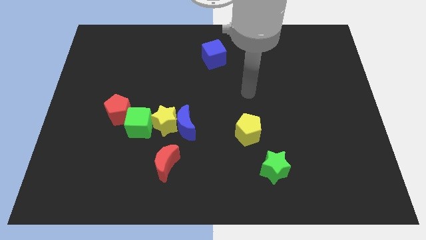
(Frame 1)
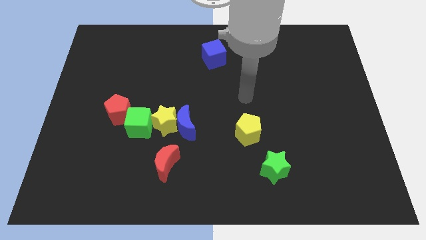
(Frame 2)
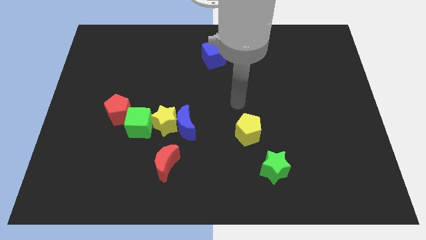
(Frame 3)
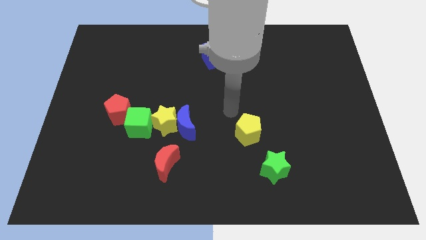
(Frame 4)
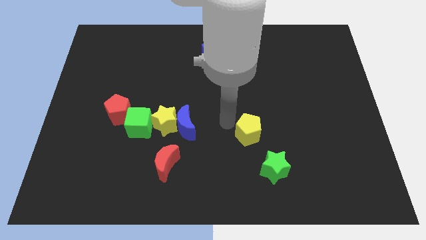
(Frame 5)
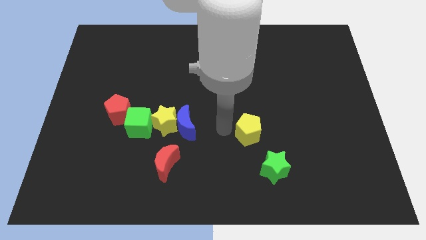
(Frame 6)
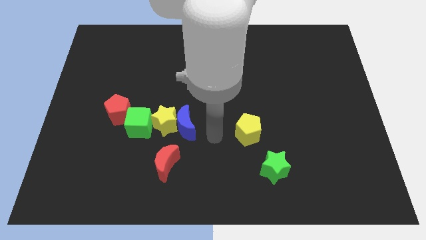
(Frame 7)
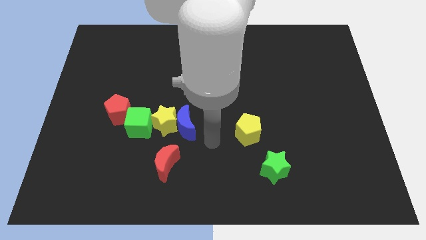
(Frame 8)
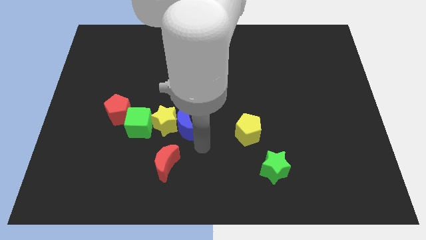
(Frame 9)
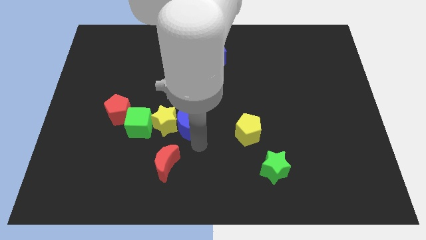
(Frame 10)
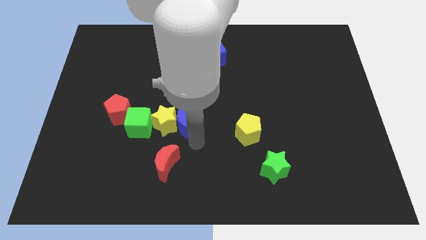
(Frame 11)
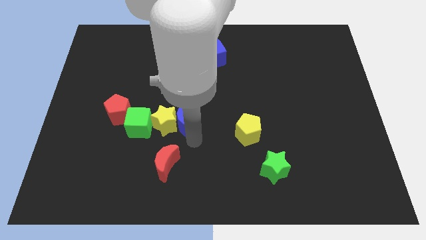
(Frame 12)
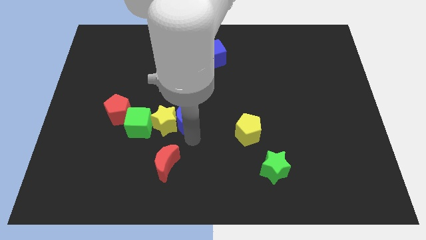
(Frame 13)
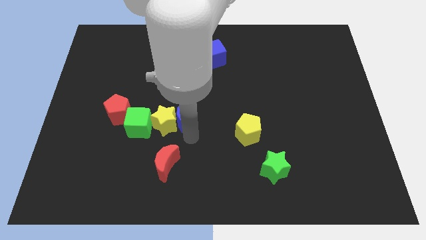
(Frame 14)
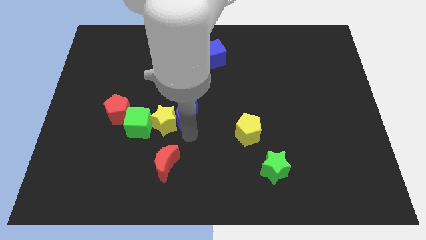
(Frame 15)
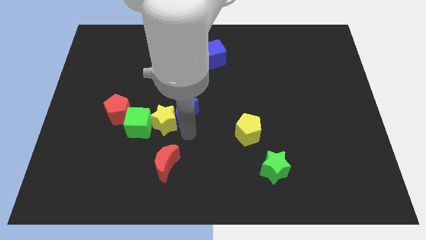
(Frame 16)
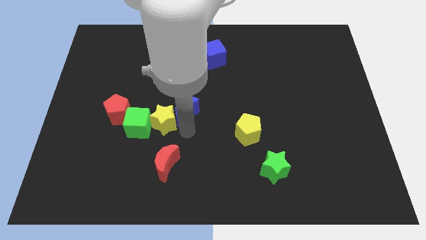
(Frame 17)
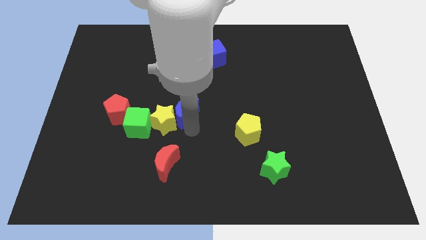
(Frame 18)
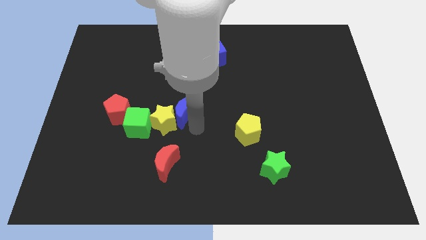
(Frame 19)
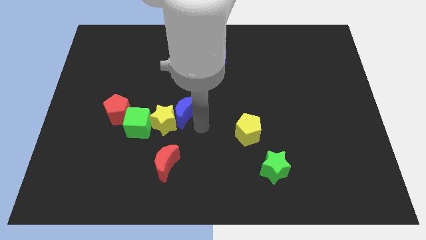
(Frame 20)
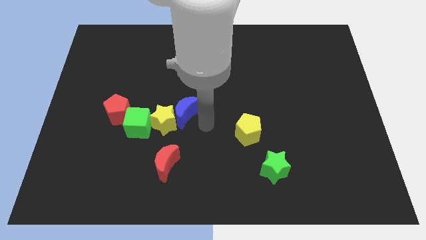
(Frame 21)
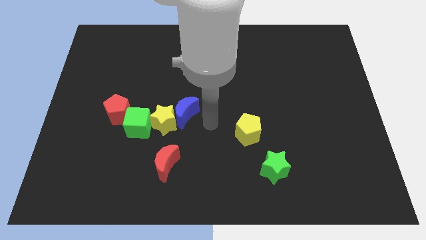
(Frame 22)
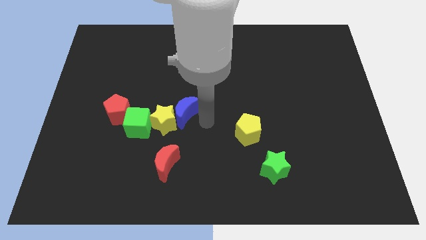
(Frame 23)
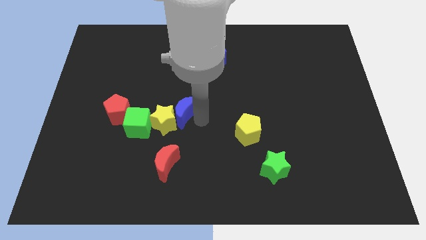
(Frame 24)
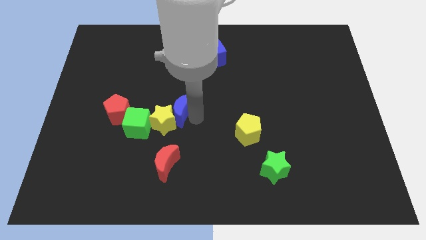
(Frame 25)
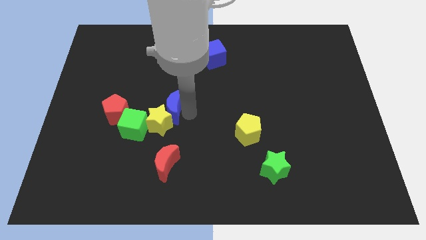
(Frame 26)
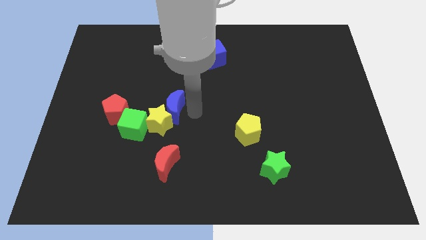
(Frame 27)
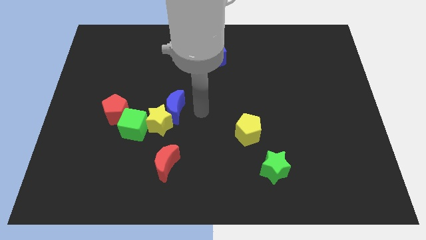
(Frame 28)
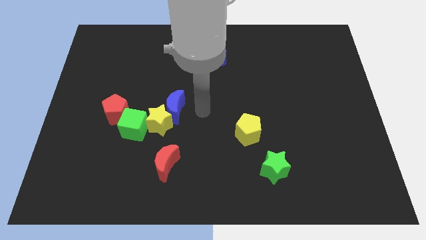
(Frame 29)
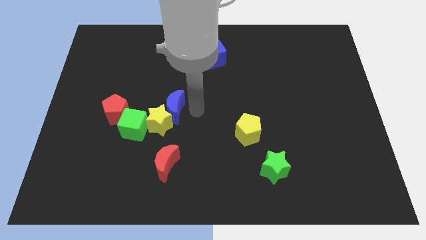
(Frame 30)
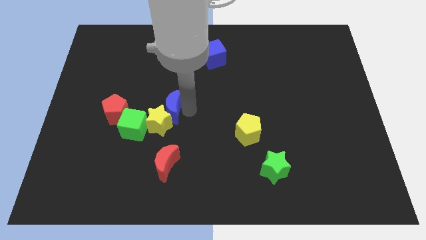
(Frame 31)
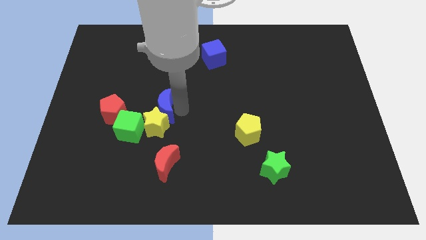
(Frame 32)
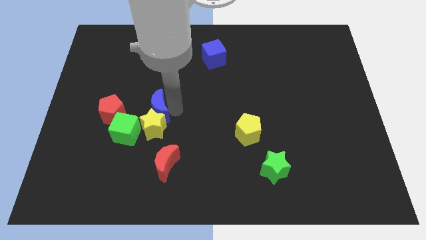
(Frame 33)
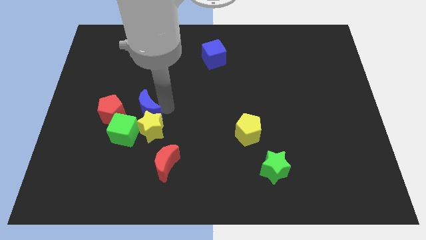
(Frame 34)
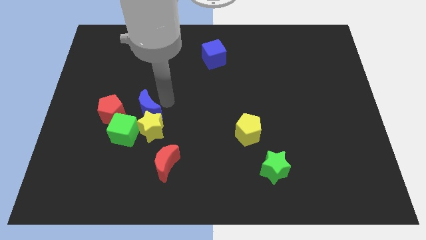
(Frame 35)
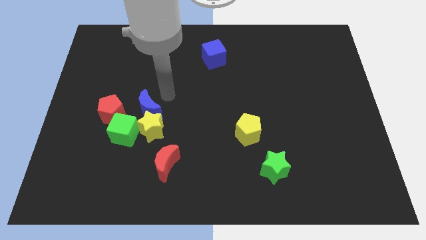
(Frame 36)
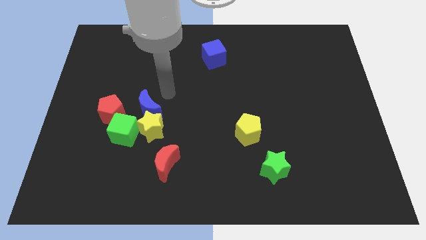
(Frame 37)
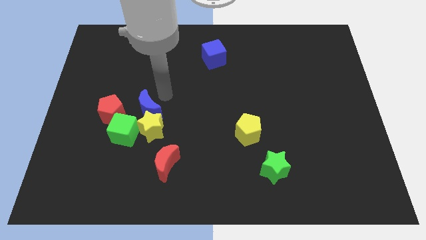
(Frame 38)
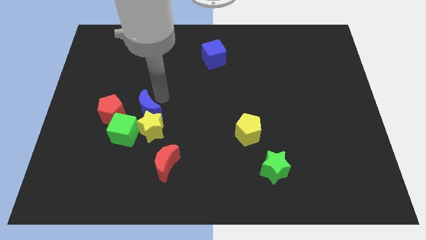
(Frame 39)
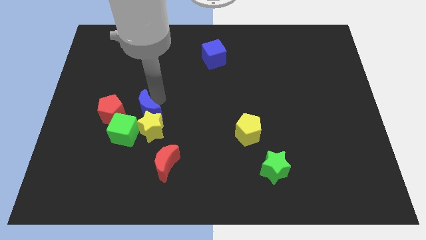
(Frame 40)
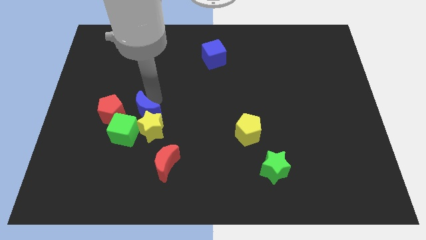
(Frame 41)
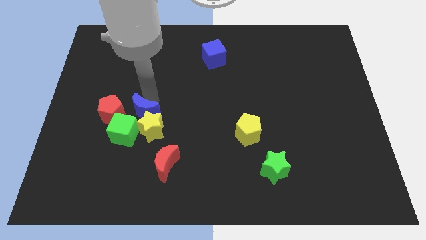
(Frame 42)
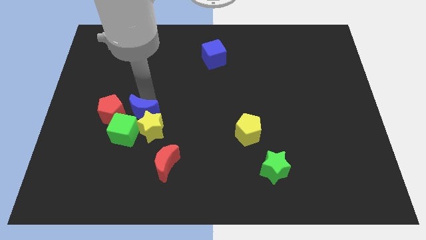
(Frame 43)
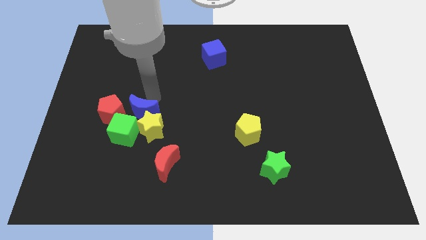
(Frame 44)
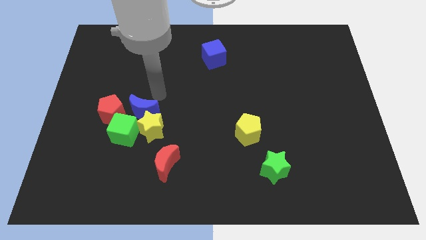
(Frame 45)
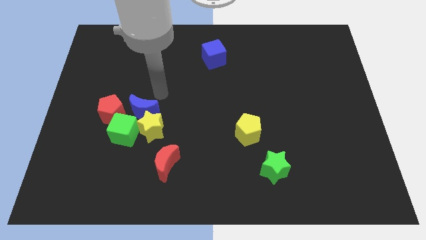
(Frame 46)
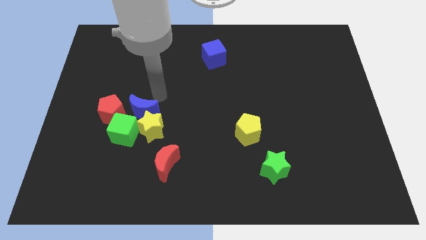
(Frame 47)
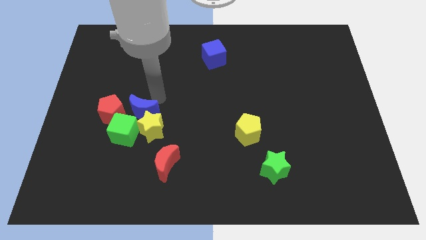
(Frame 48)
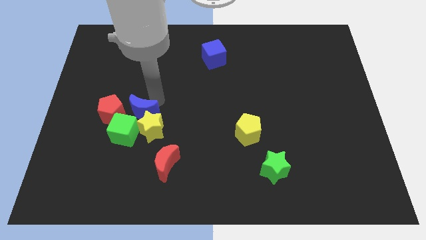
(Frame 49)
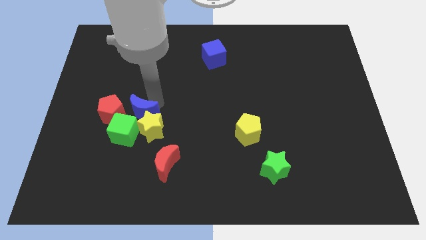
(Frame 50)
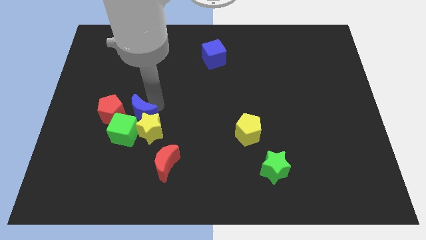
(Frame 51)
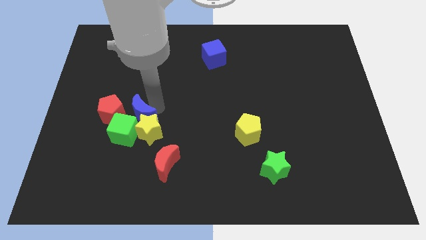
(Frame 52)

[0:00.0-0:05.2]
put the blue moon close to the green cube

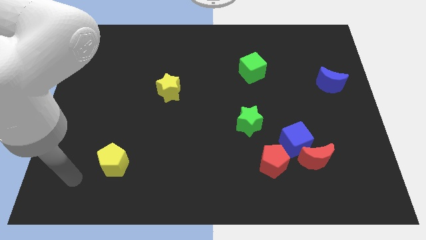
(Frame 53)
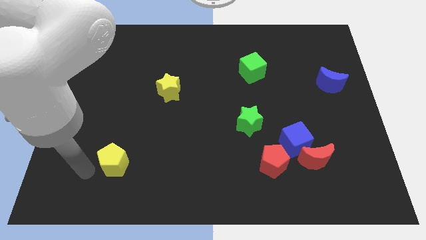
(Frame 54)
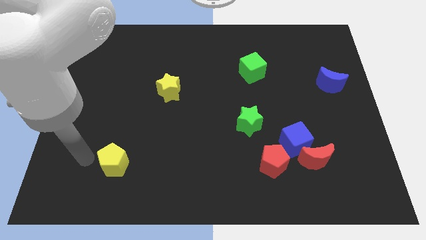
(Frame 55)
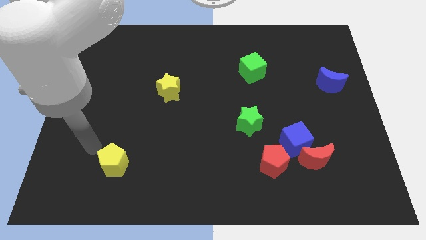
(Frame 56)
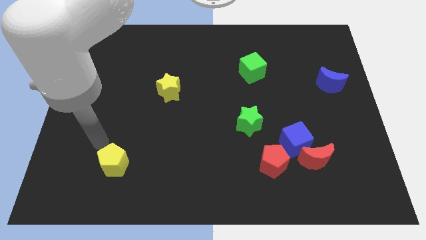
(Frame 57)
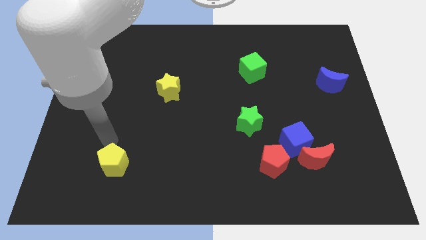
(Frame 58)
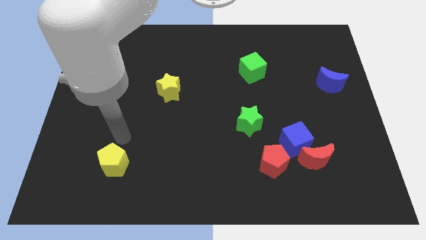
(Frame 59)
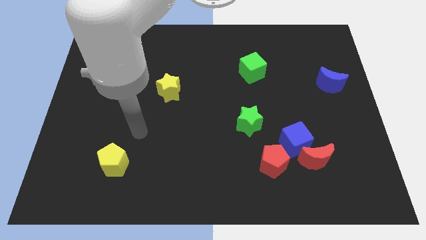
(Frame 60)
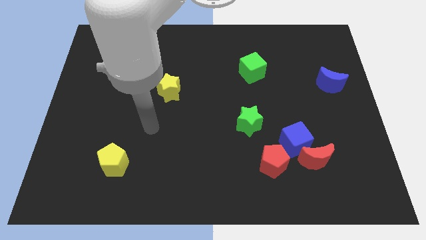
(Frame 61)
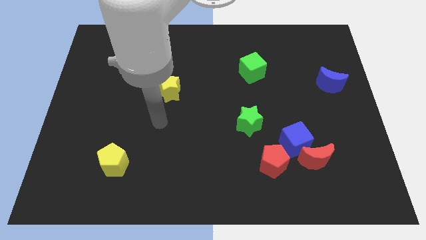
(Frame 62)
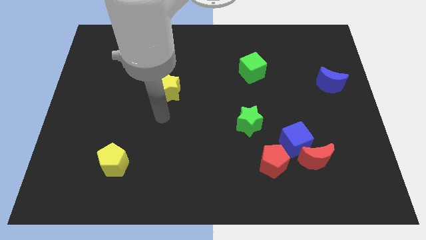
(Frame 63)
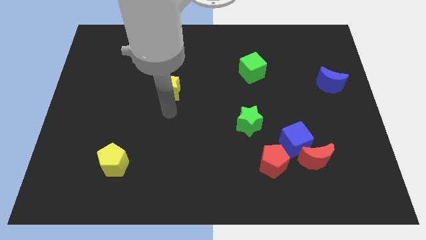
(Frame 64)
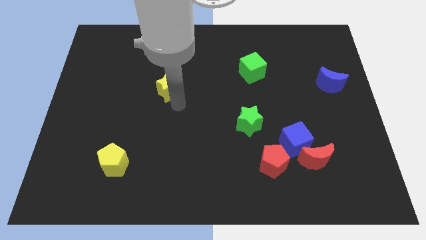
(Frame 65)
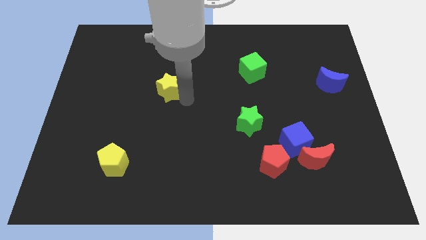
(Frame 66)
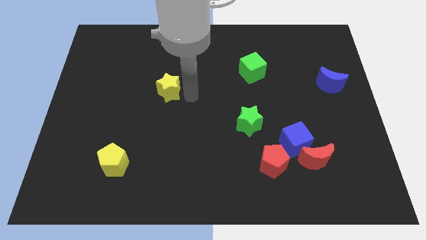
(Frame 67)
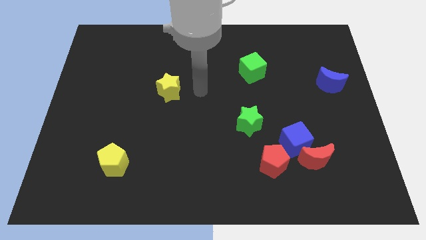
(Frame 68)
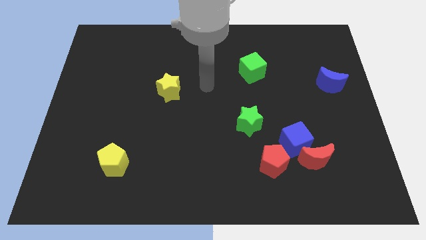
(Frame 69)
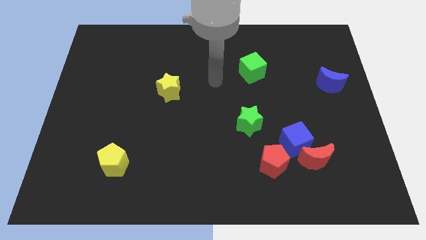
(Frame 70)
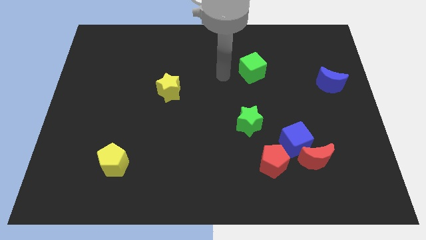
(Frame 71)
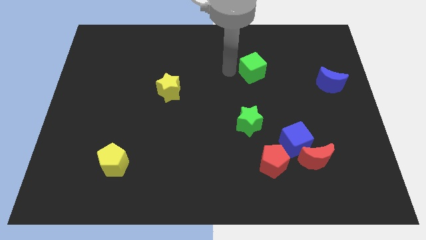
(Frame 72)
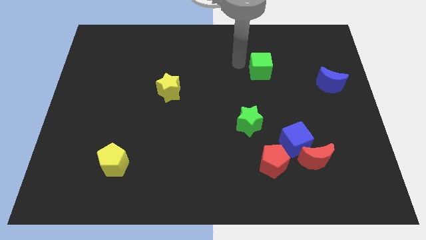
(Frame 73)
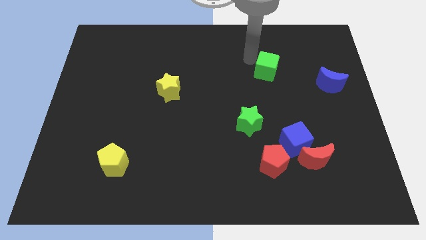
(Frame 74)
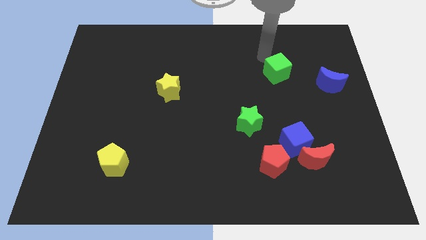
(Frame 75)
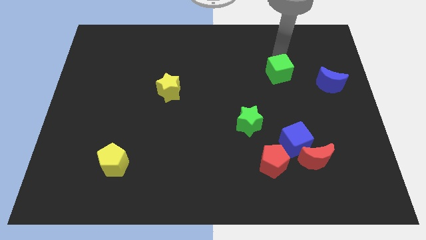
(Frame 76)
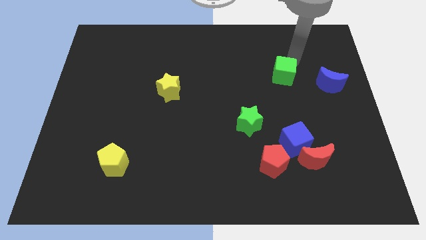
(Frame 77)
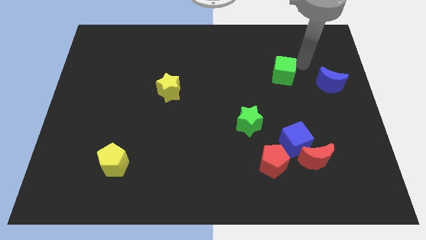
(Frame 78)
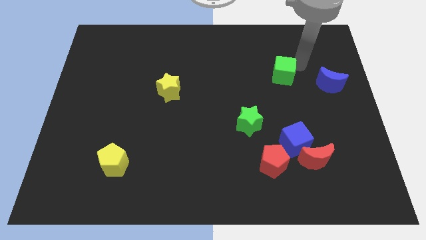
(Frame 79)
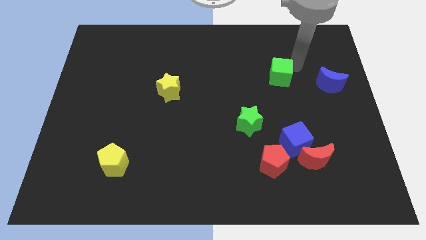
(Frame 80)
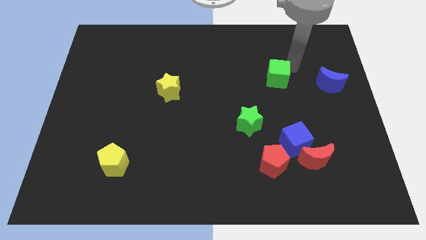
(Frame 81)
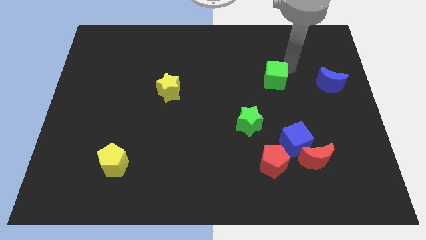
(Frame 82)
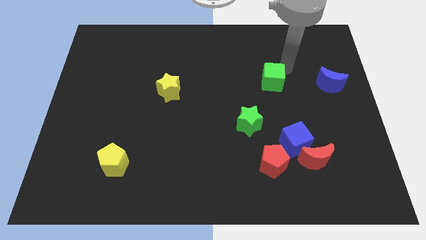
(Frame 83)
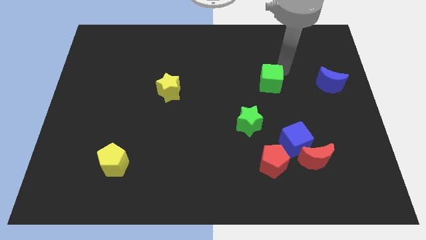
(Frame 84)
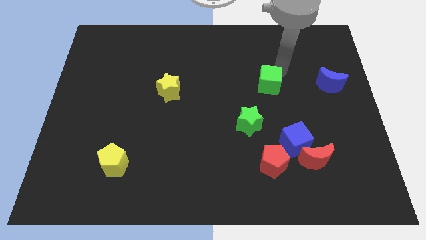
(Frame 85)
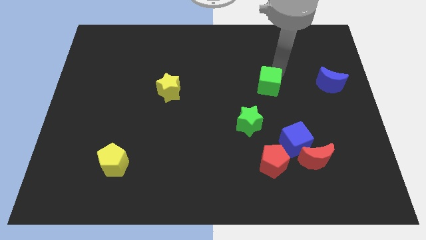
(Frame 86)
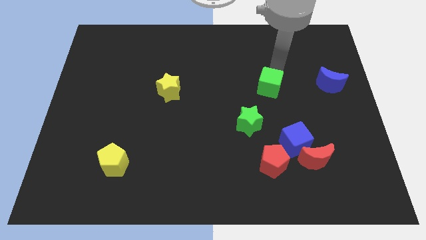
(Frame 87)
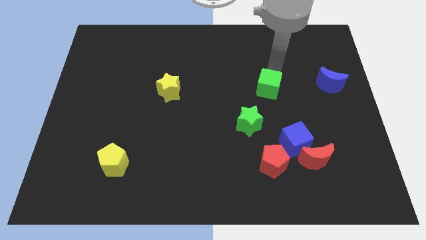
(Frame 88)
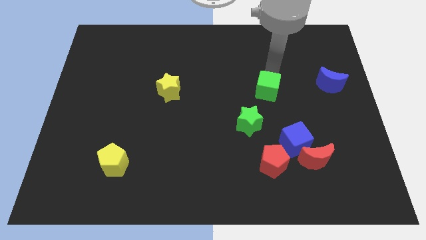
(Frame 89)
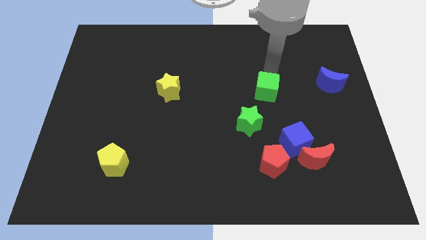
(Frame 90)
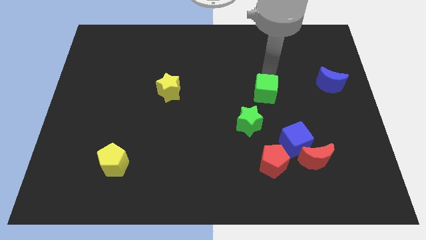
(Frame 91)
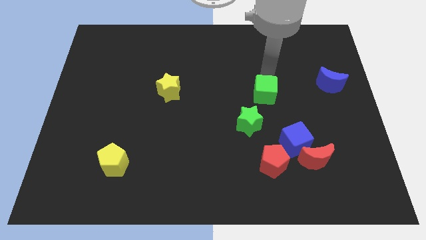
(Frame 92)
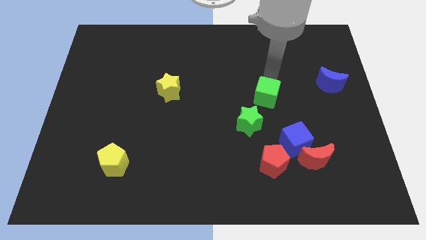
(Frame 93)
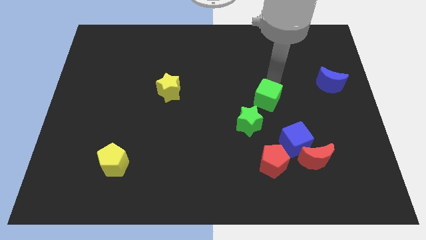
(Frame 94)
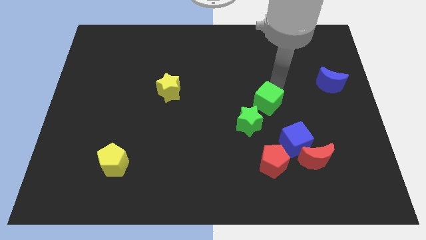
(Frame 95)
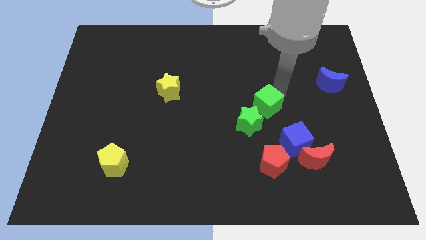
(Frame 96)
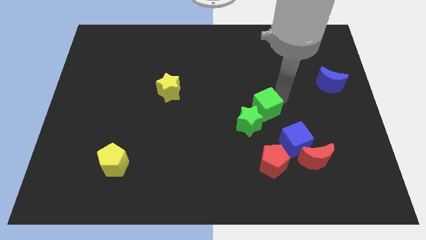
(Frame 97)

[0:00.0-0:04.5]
put the green cube to the green star
